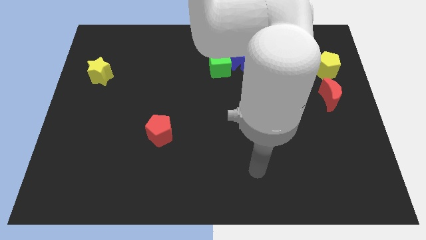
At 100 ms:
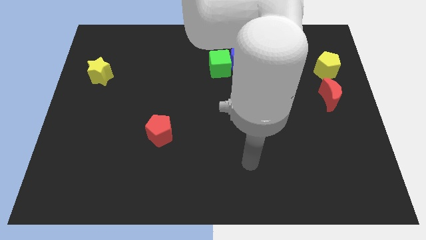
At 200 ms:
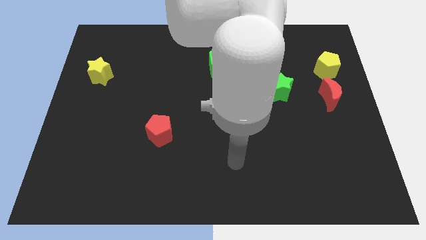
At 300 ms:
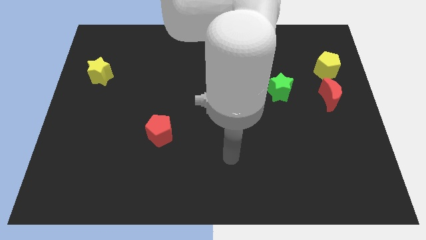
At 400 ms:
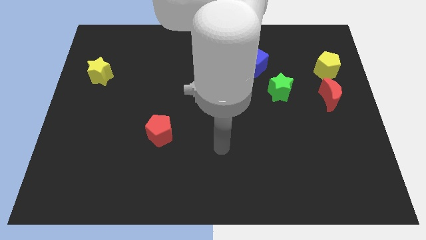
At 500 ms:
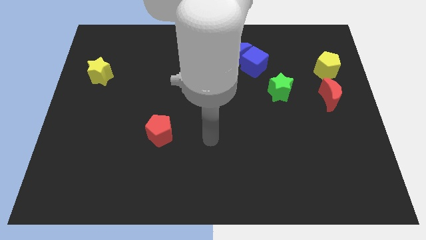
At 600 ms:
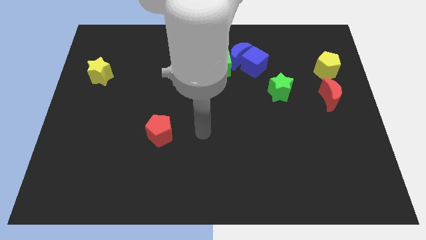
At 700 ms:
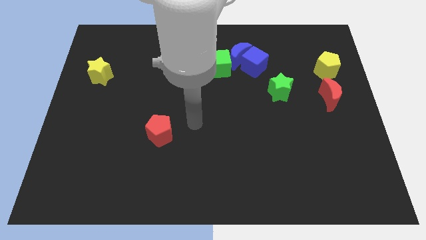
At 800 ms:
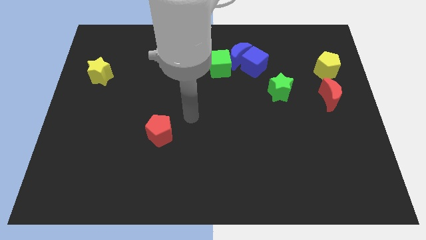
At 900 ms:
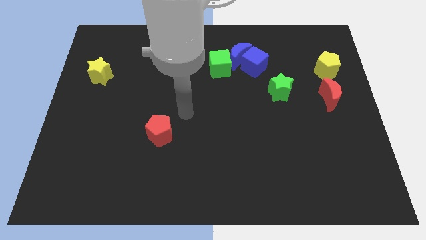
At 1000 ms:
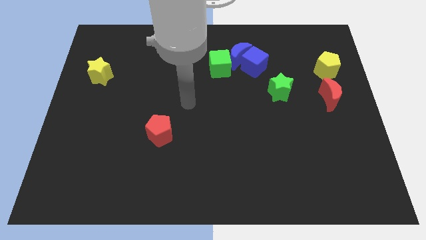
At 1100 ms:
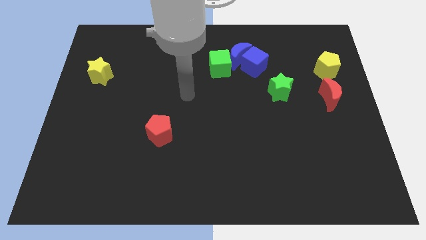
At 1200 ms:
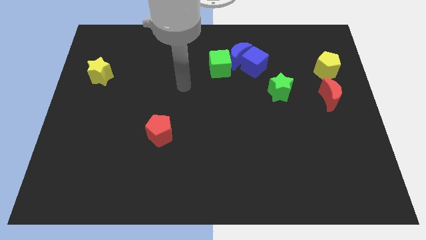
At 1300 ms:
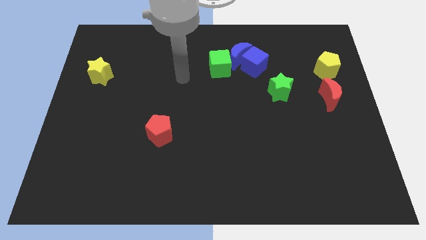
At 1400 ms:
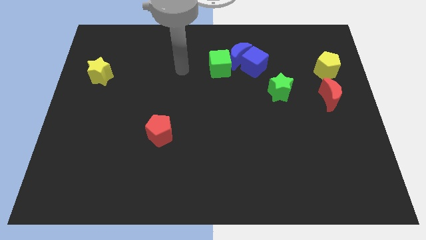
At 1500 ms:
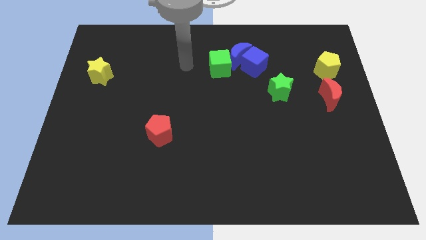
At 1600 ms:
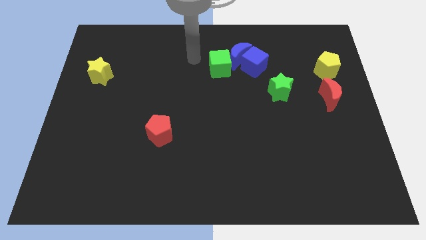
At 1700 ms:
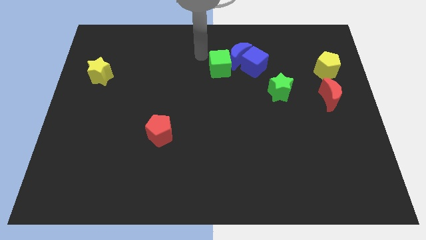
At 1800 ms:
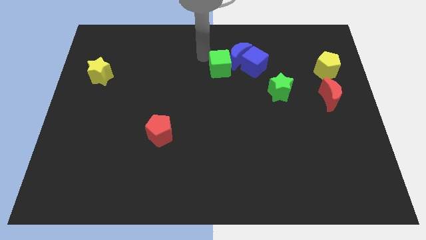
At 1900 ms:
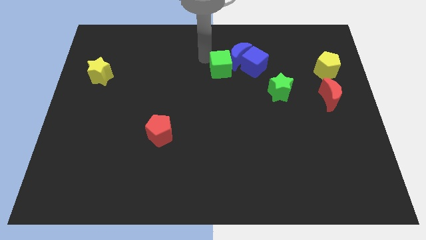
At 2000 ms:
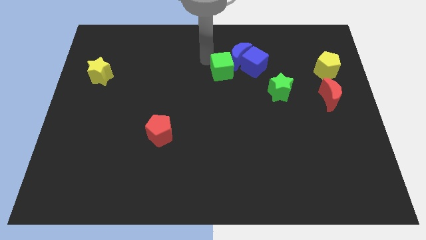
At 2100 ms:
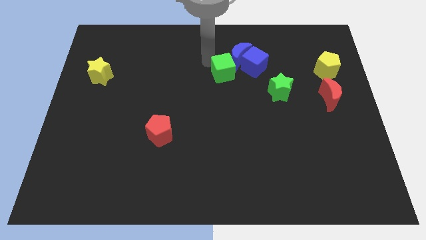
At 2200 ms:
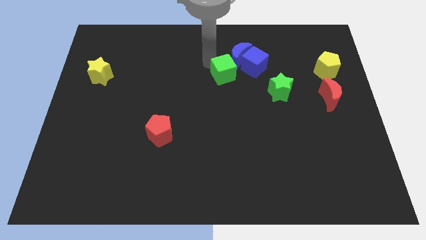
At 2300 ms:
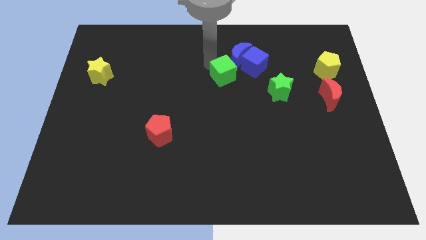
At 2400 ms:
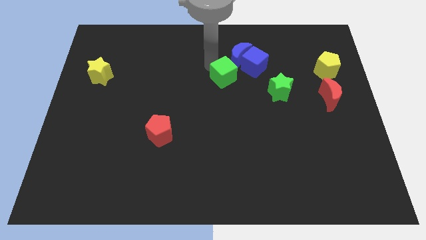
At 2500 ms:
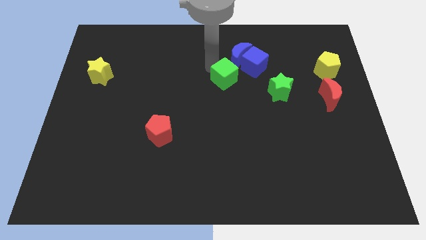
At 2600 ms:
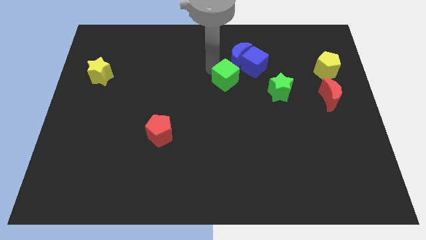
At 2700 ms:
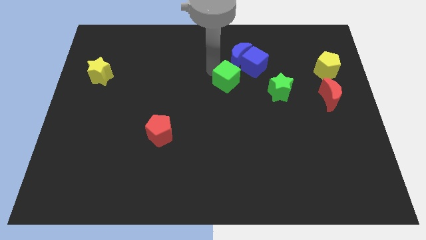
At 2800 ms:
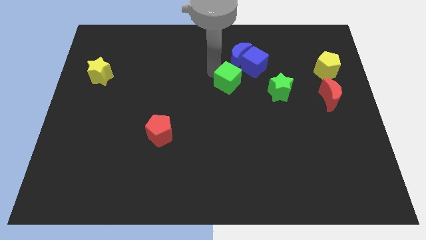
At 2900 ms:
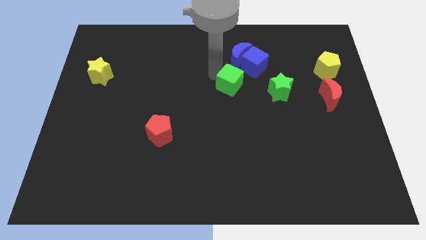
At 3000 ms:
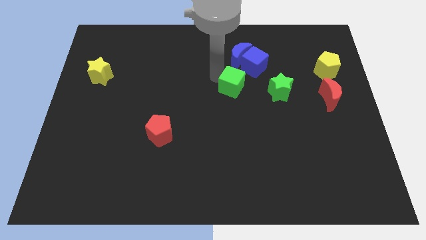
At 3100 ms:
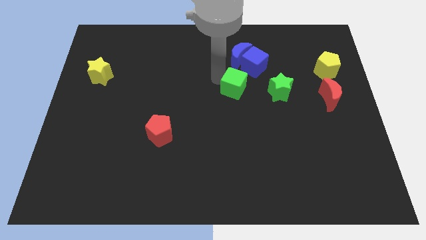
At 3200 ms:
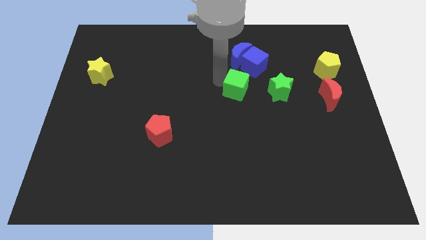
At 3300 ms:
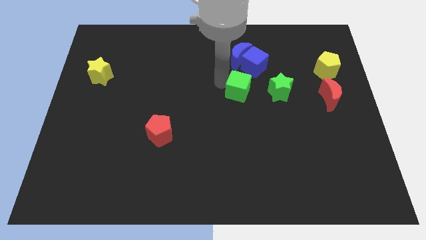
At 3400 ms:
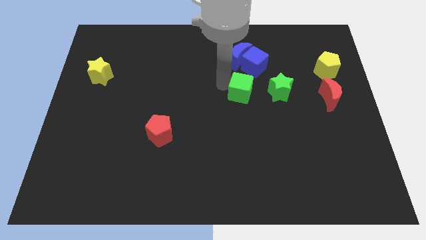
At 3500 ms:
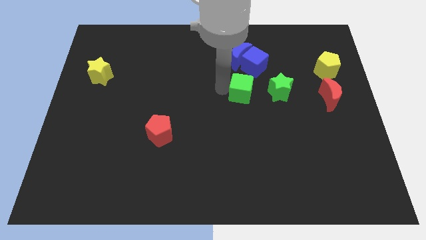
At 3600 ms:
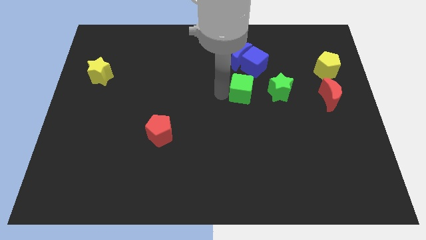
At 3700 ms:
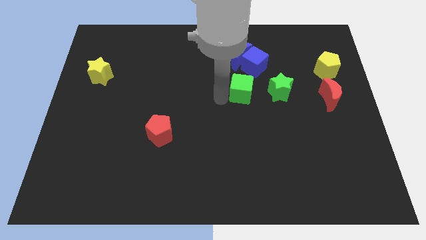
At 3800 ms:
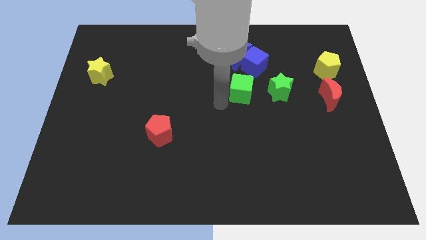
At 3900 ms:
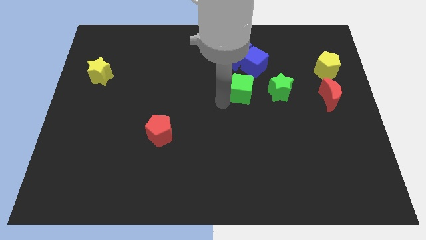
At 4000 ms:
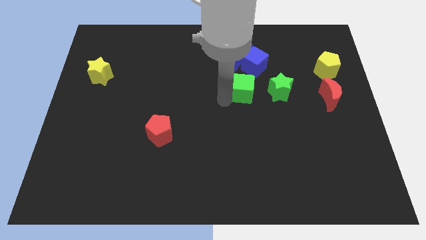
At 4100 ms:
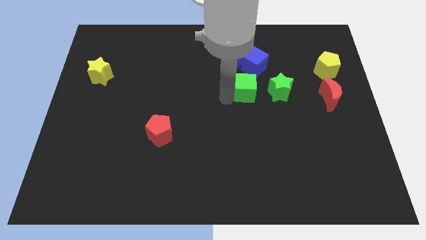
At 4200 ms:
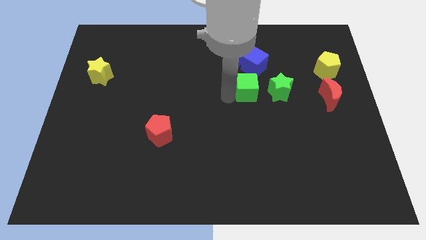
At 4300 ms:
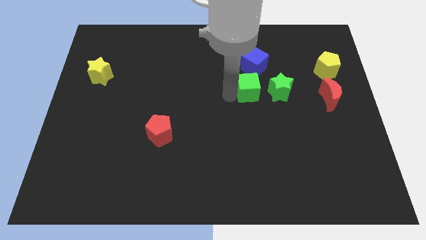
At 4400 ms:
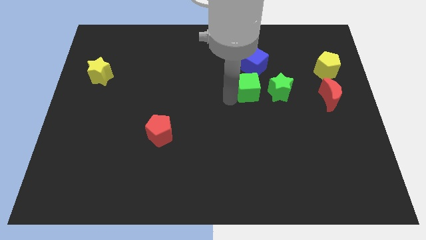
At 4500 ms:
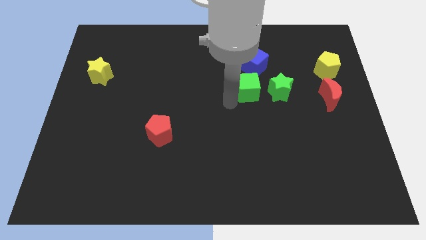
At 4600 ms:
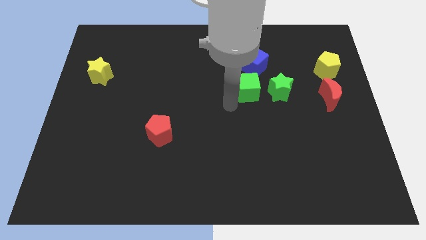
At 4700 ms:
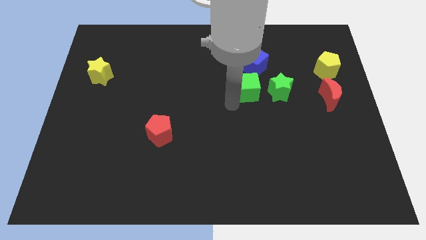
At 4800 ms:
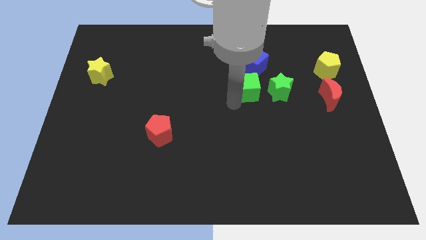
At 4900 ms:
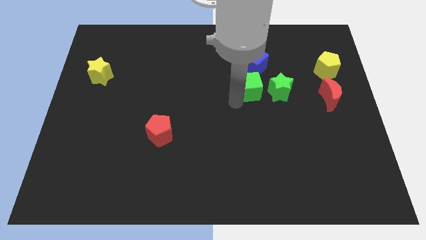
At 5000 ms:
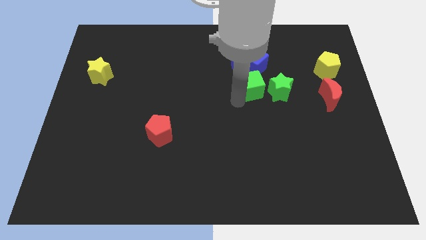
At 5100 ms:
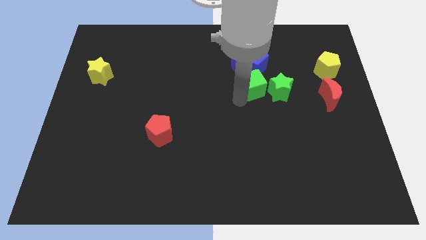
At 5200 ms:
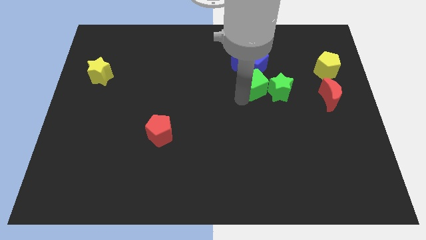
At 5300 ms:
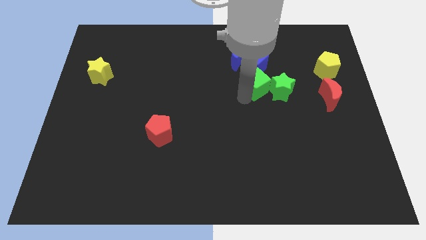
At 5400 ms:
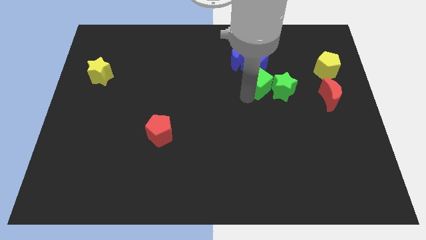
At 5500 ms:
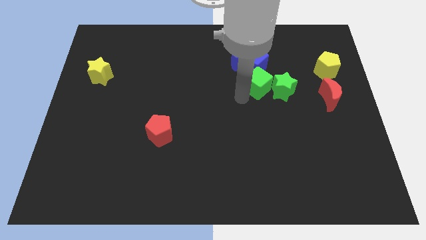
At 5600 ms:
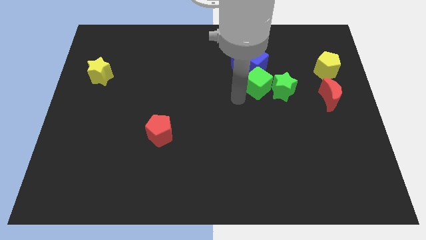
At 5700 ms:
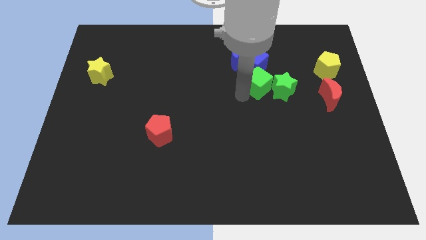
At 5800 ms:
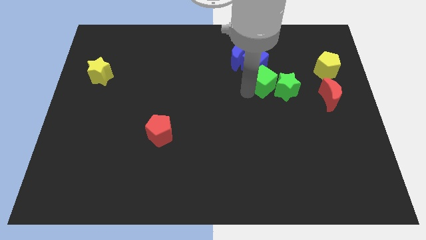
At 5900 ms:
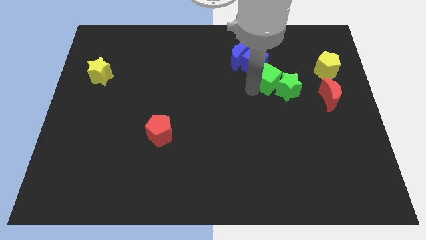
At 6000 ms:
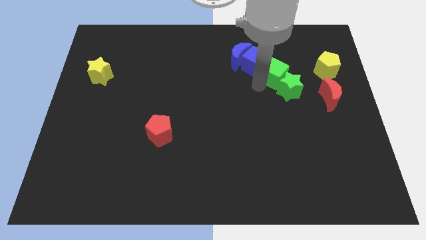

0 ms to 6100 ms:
push the green cube just right of the blue cube

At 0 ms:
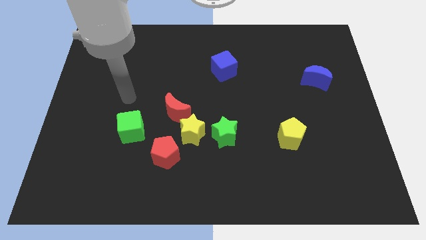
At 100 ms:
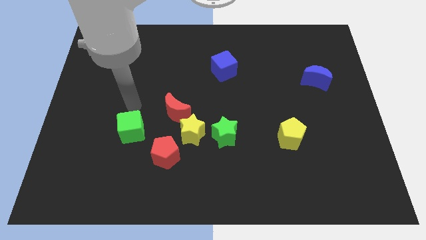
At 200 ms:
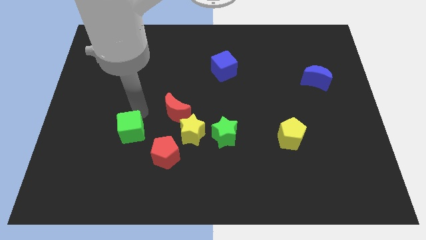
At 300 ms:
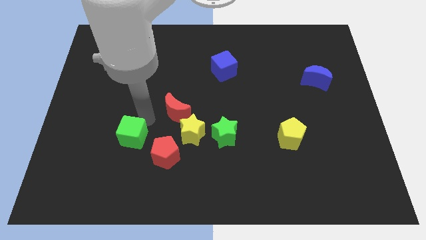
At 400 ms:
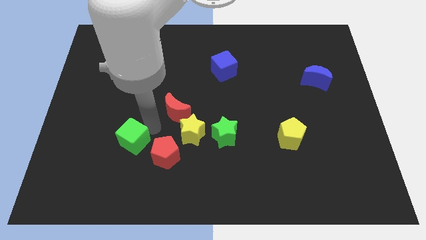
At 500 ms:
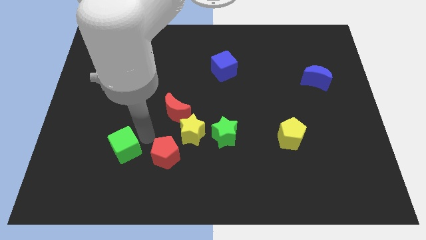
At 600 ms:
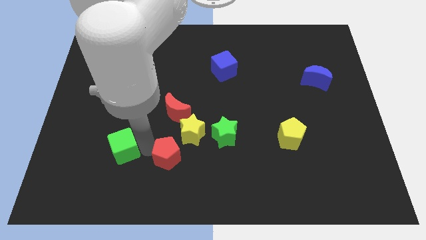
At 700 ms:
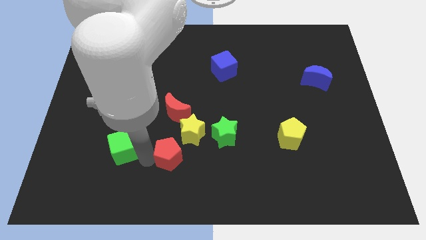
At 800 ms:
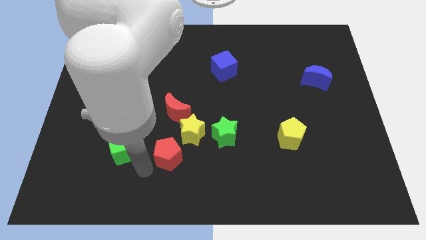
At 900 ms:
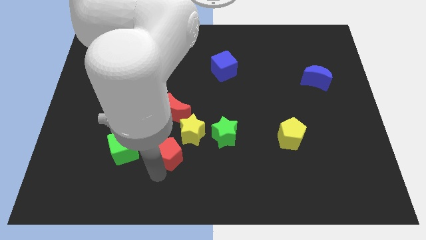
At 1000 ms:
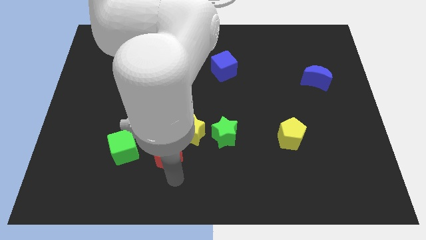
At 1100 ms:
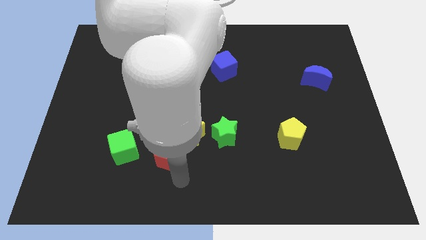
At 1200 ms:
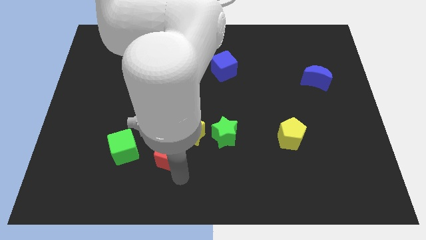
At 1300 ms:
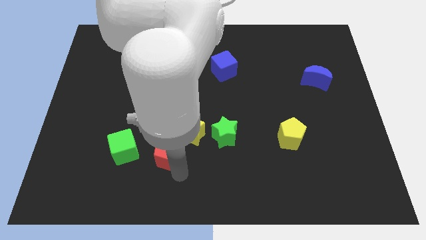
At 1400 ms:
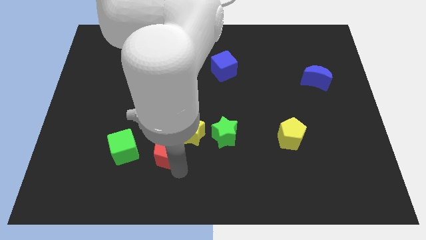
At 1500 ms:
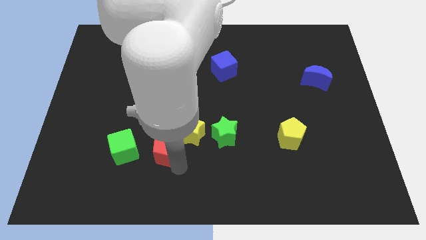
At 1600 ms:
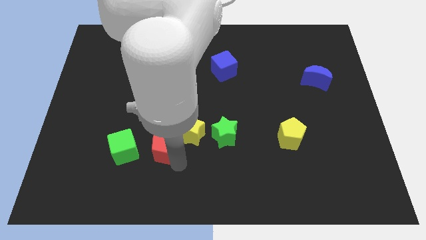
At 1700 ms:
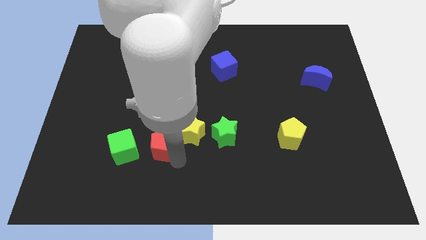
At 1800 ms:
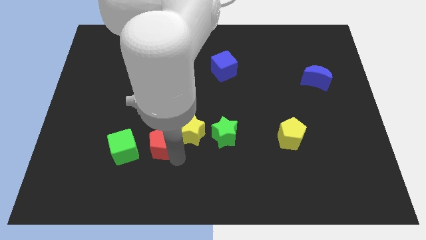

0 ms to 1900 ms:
push the red pentagon diagonally up and to the right of the green cube
